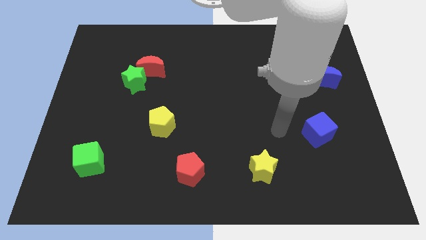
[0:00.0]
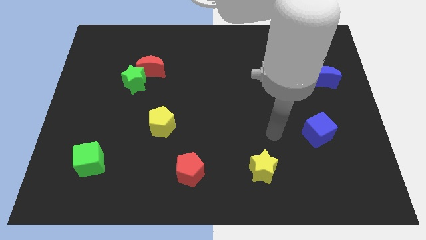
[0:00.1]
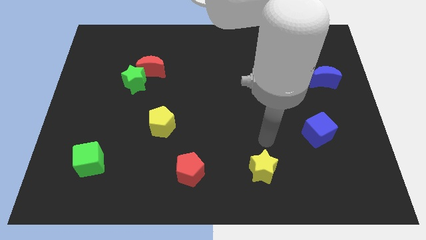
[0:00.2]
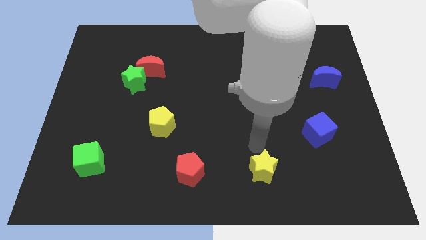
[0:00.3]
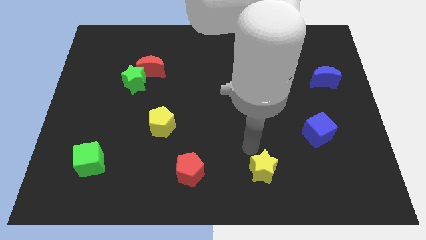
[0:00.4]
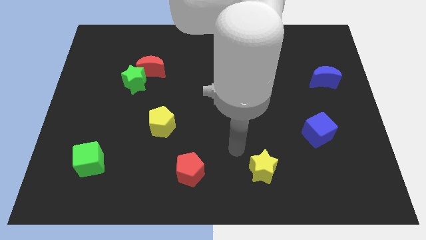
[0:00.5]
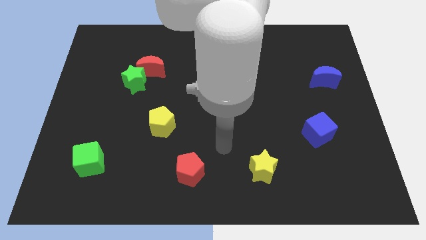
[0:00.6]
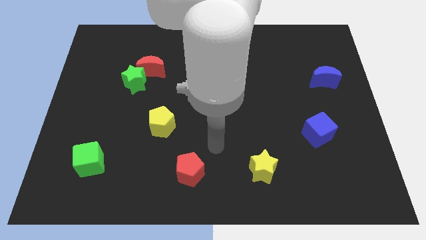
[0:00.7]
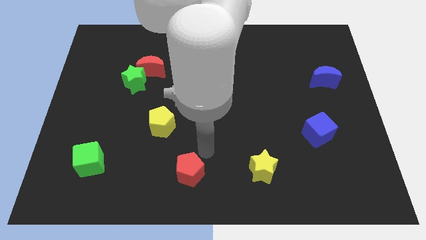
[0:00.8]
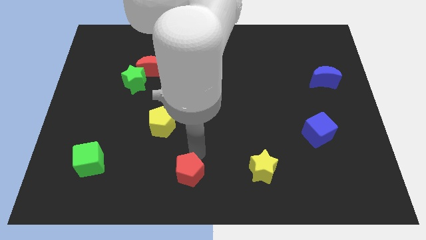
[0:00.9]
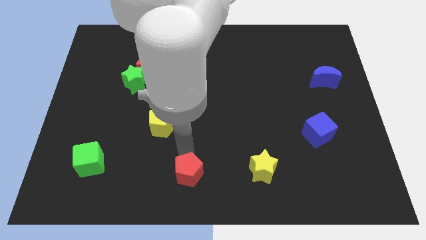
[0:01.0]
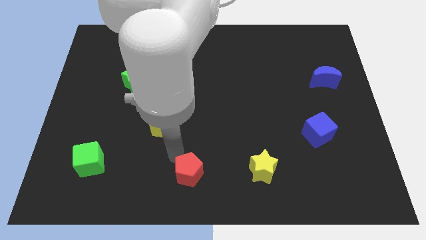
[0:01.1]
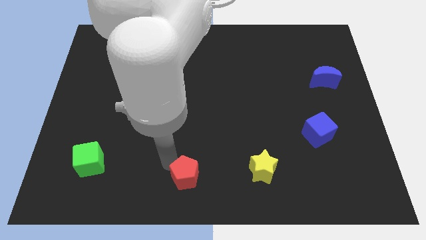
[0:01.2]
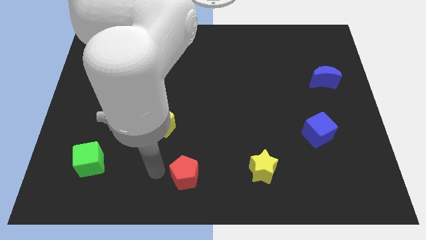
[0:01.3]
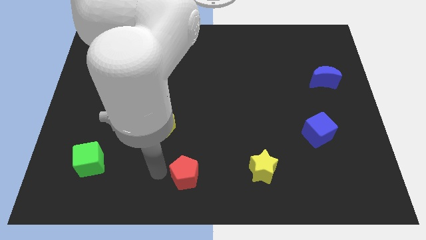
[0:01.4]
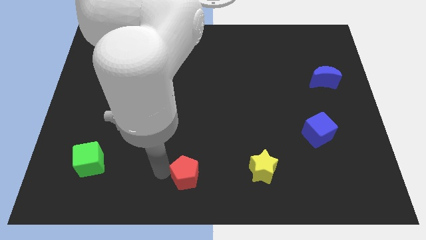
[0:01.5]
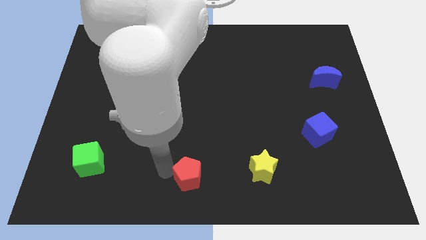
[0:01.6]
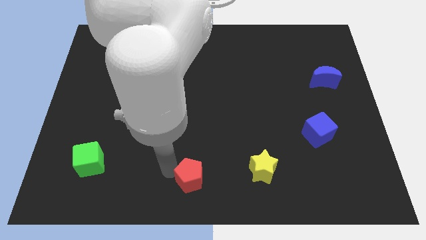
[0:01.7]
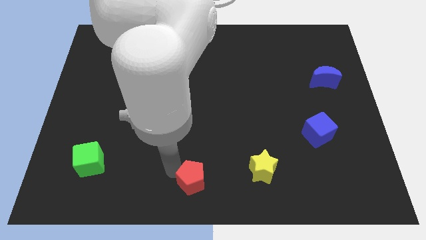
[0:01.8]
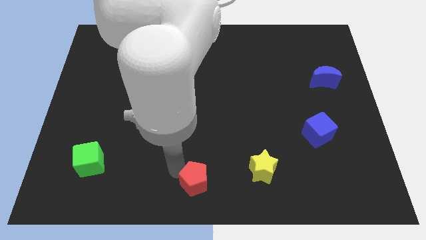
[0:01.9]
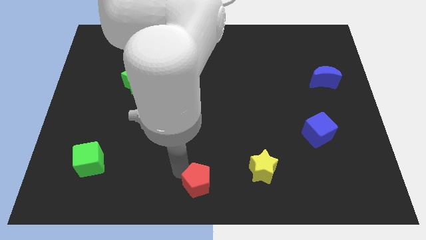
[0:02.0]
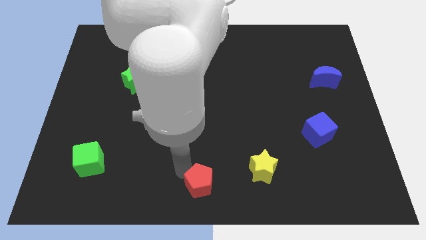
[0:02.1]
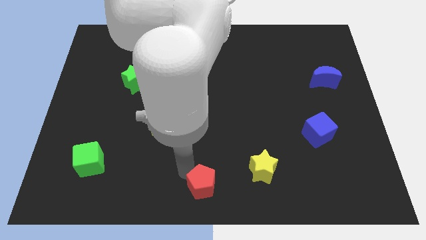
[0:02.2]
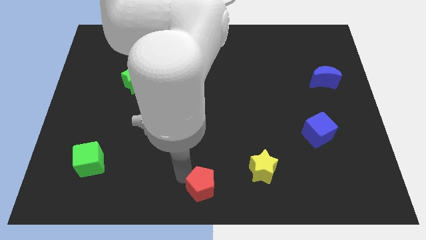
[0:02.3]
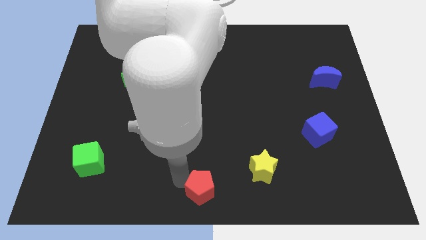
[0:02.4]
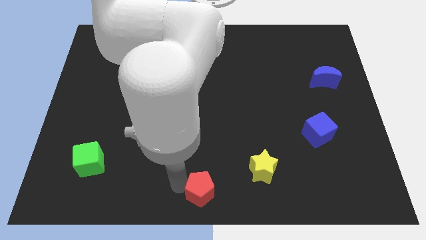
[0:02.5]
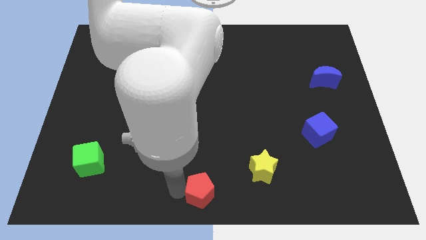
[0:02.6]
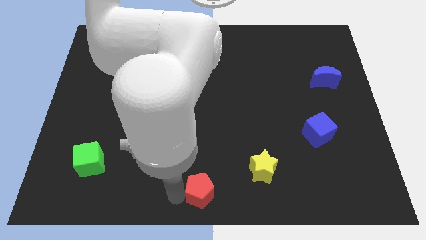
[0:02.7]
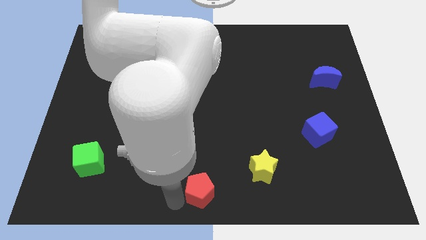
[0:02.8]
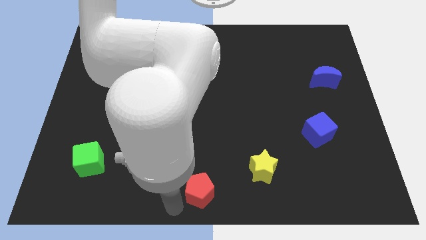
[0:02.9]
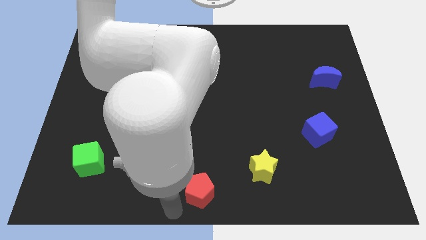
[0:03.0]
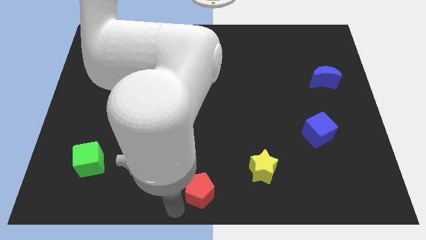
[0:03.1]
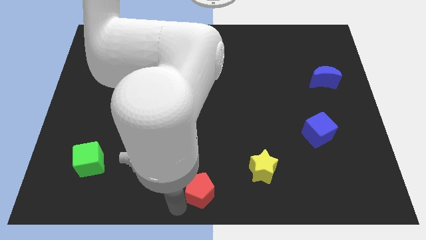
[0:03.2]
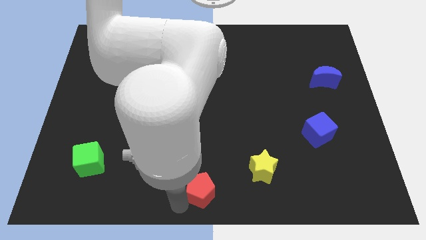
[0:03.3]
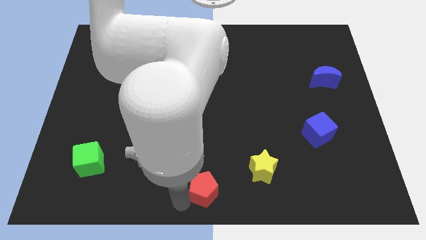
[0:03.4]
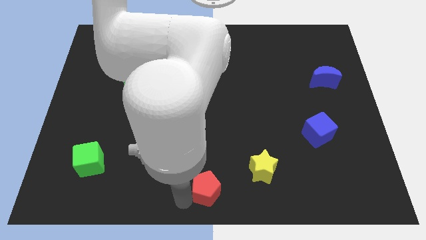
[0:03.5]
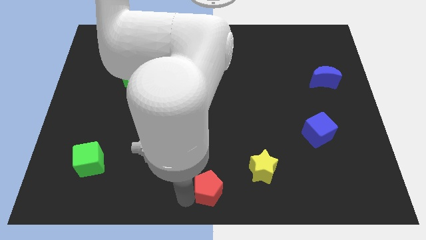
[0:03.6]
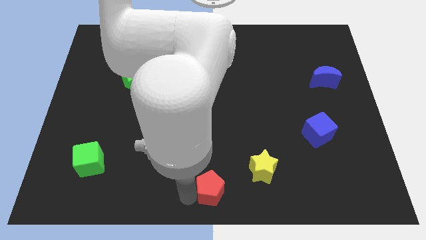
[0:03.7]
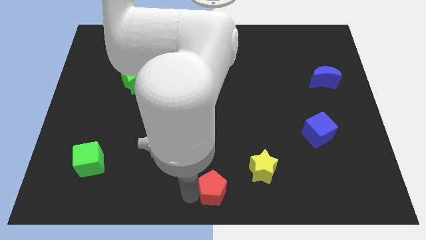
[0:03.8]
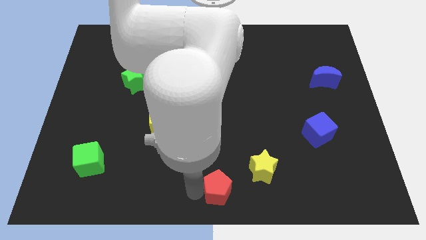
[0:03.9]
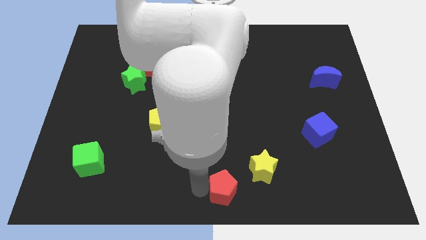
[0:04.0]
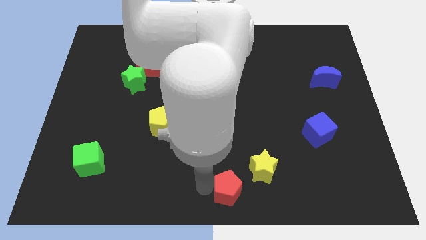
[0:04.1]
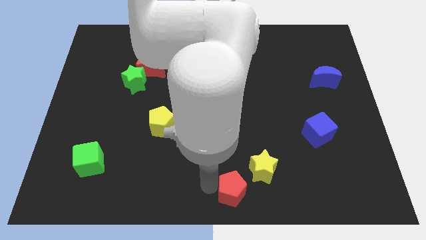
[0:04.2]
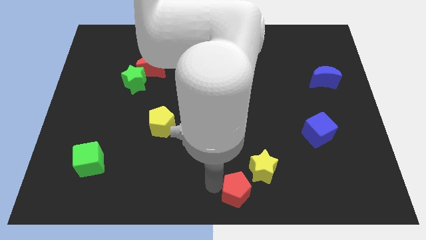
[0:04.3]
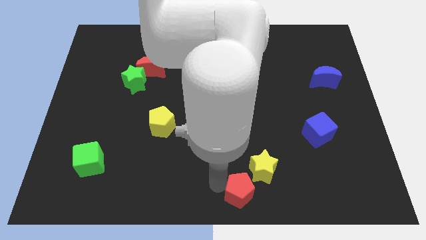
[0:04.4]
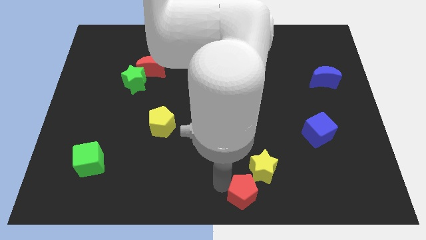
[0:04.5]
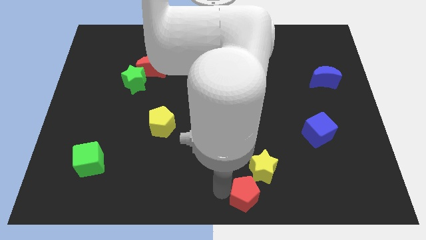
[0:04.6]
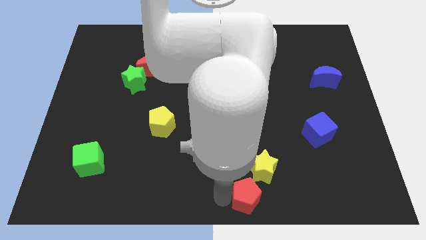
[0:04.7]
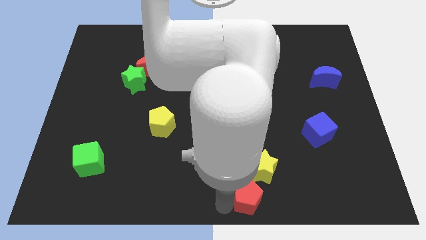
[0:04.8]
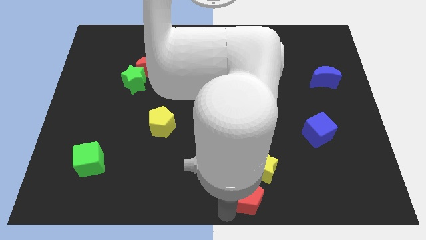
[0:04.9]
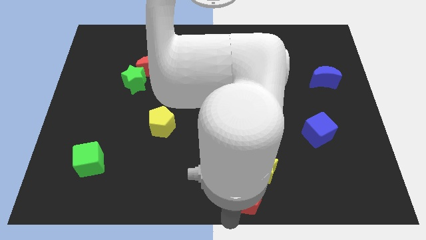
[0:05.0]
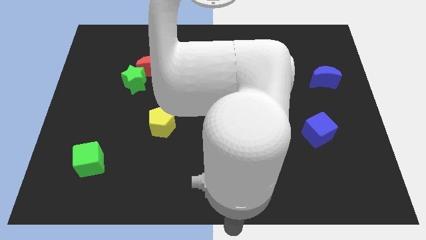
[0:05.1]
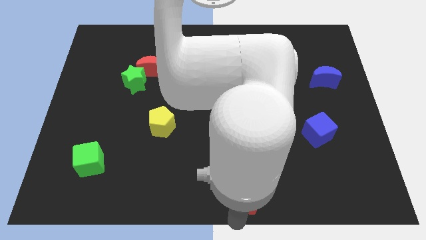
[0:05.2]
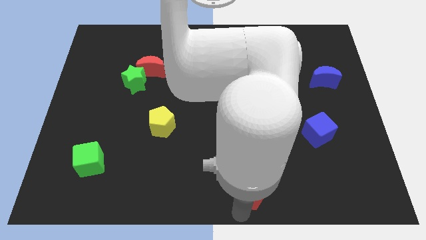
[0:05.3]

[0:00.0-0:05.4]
push the red pentagon to the yellow star

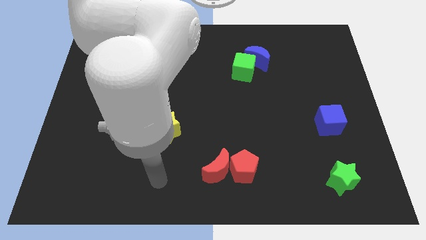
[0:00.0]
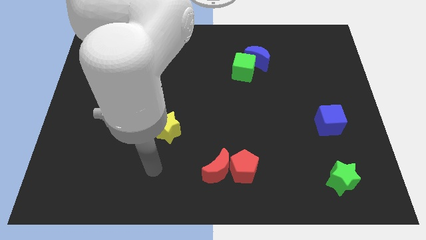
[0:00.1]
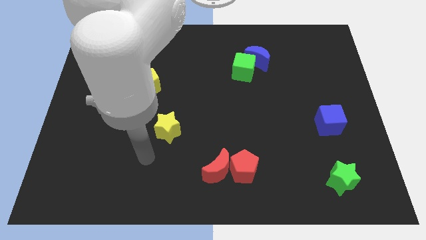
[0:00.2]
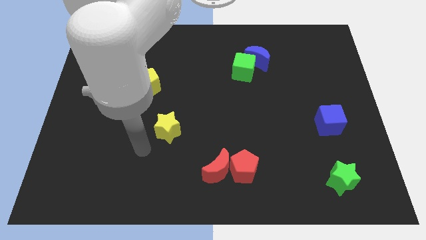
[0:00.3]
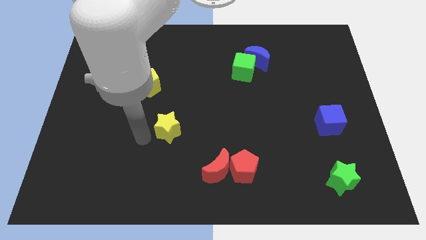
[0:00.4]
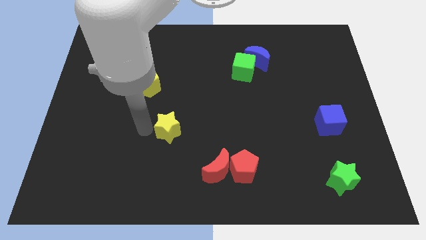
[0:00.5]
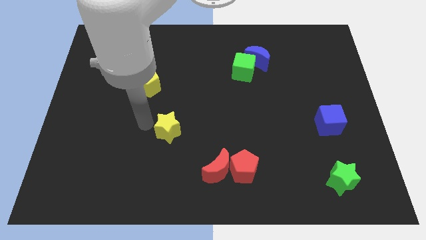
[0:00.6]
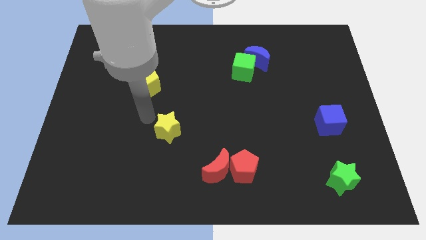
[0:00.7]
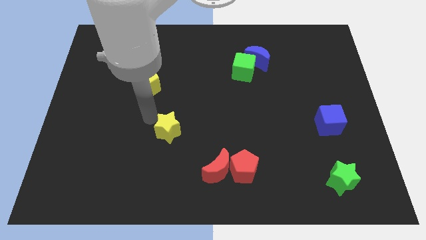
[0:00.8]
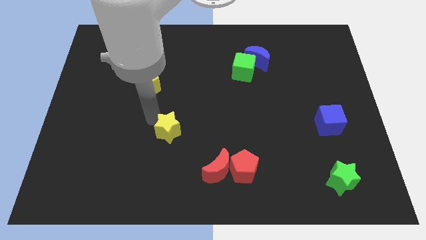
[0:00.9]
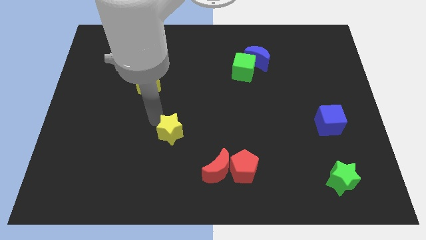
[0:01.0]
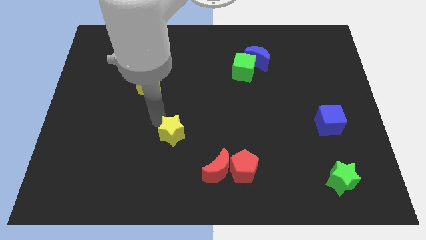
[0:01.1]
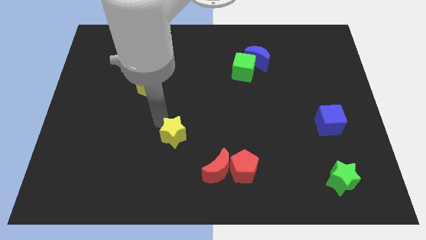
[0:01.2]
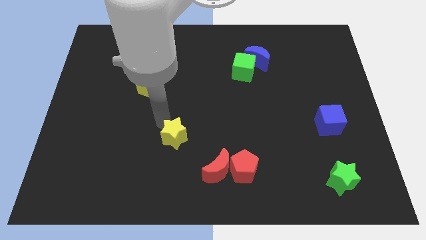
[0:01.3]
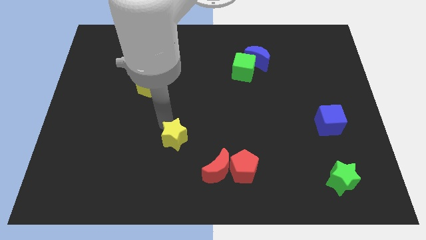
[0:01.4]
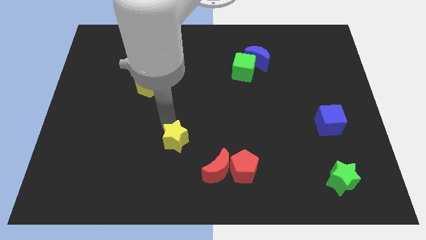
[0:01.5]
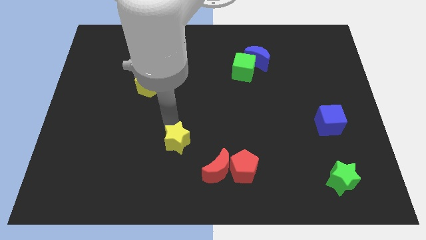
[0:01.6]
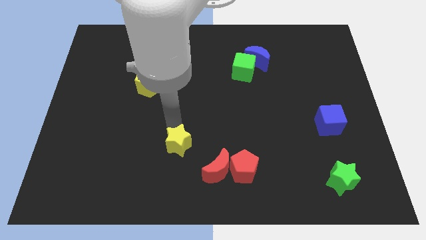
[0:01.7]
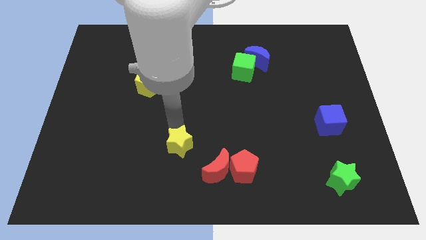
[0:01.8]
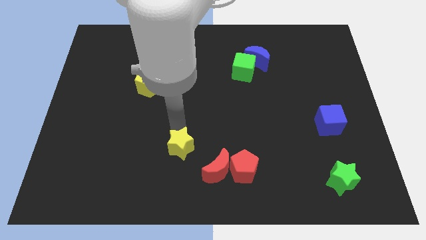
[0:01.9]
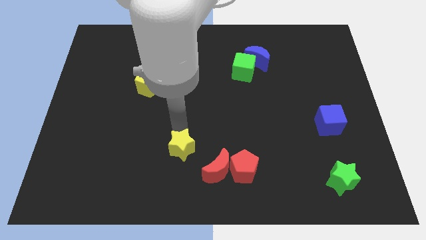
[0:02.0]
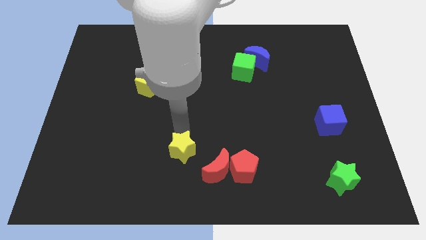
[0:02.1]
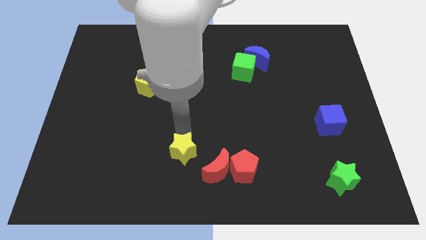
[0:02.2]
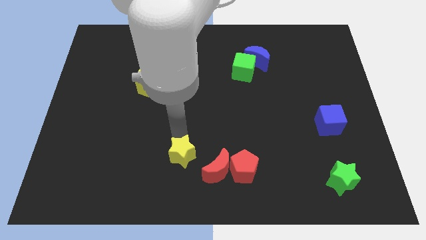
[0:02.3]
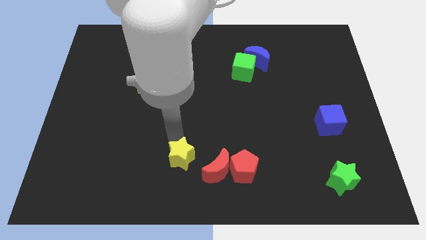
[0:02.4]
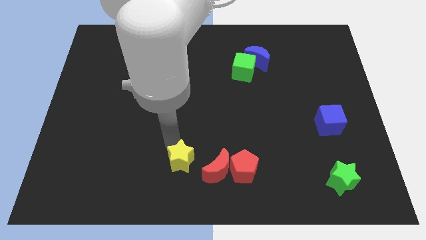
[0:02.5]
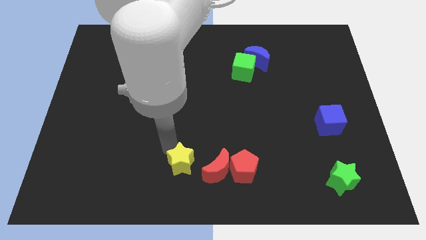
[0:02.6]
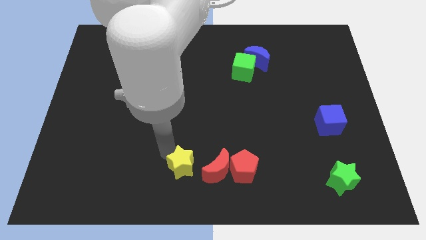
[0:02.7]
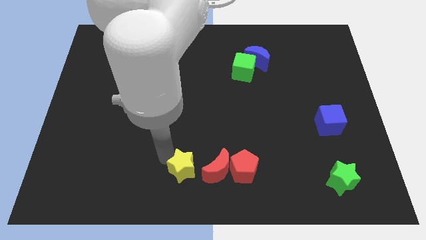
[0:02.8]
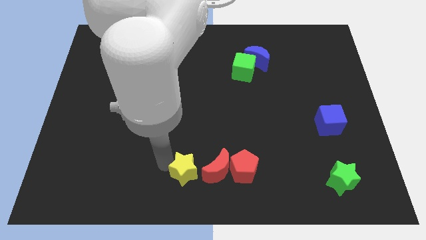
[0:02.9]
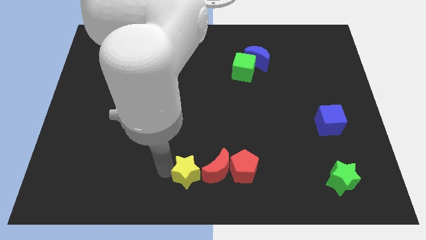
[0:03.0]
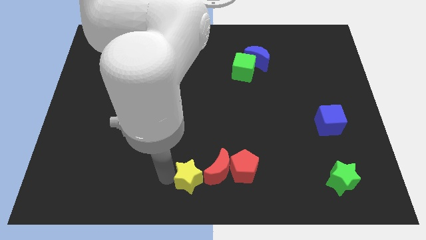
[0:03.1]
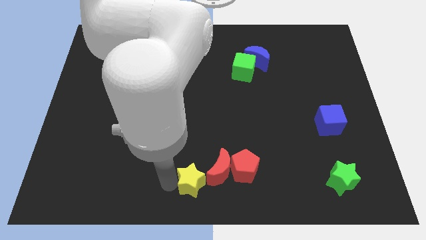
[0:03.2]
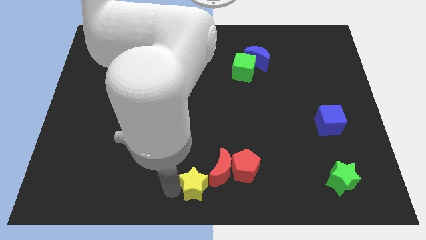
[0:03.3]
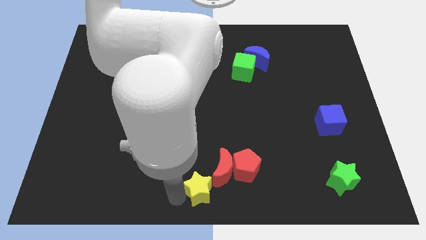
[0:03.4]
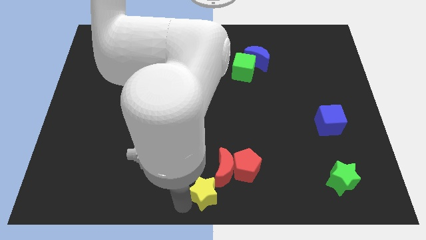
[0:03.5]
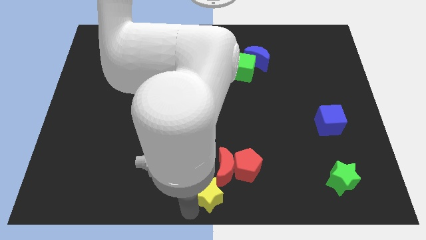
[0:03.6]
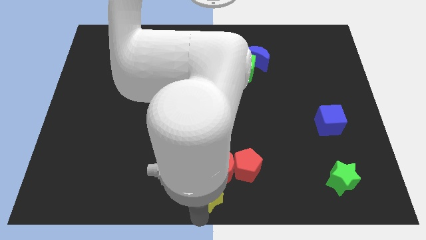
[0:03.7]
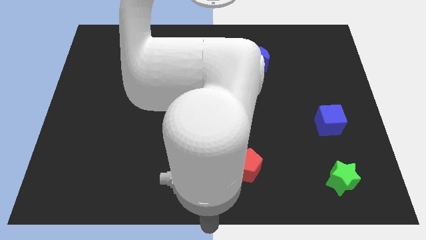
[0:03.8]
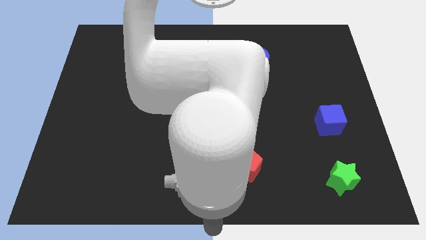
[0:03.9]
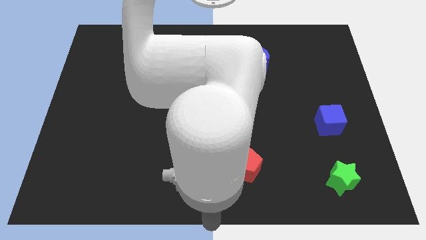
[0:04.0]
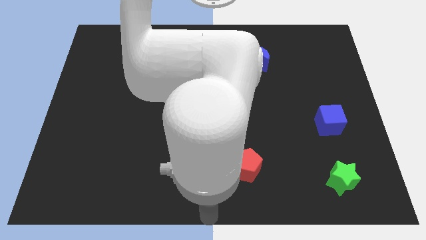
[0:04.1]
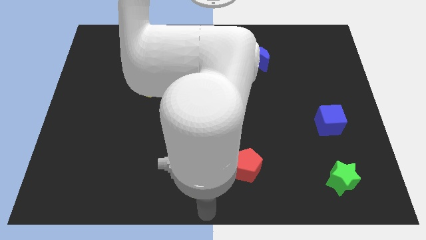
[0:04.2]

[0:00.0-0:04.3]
put the yellow star next to the red moon
